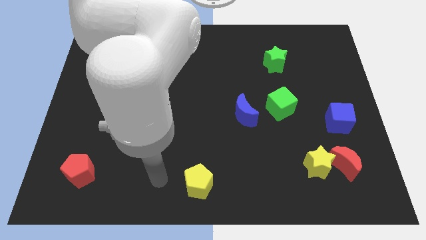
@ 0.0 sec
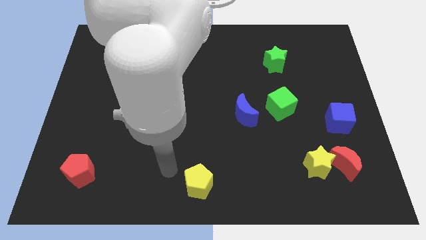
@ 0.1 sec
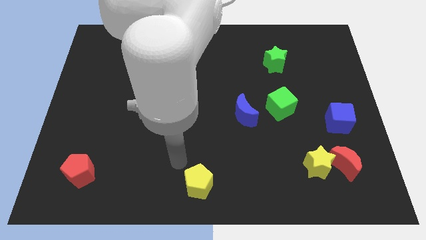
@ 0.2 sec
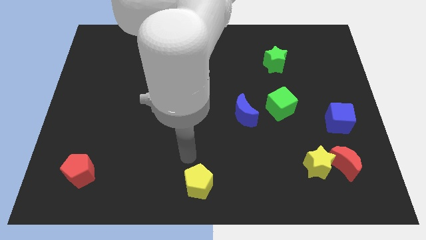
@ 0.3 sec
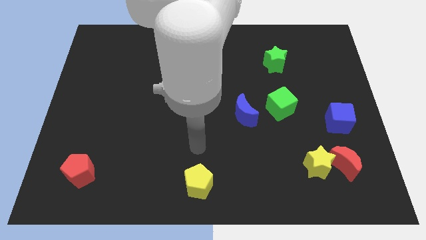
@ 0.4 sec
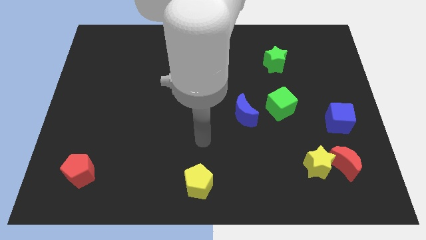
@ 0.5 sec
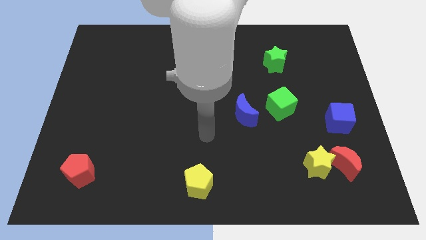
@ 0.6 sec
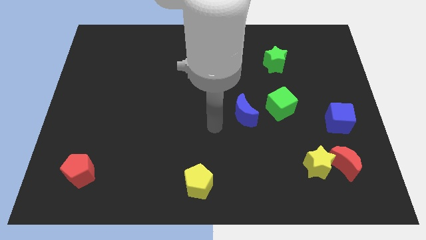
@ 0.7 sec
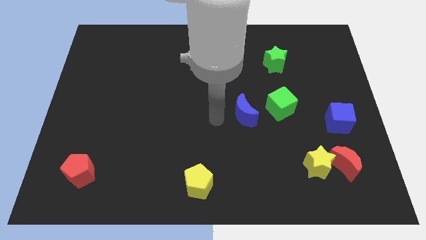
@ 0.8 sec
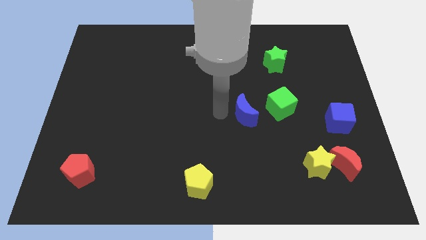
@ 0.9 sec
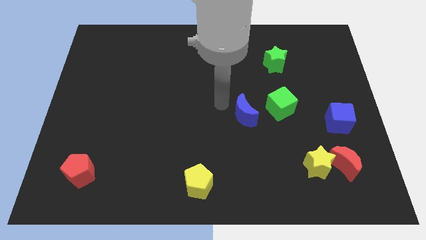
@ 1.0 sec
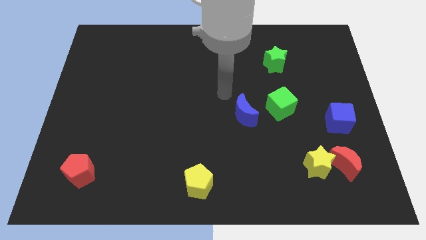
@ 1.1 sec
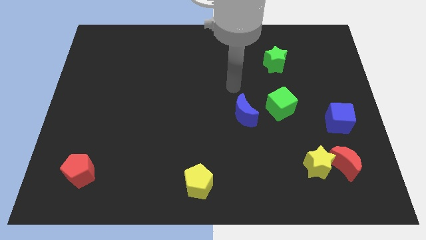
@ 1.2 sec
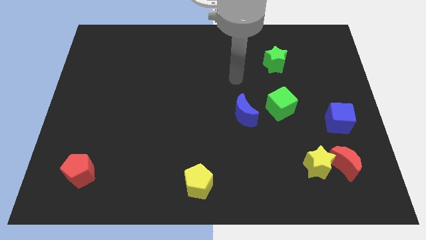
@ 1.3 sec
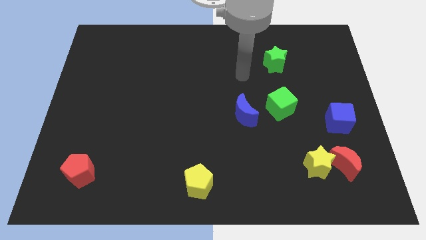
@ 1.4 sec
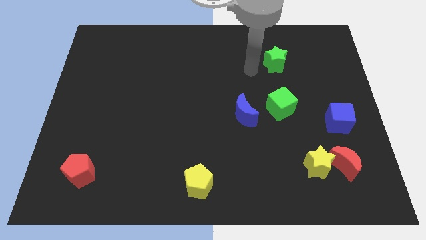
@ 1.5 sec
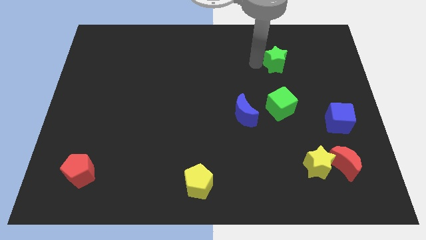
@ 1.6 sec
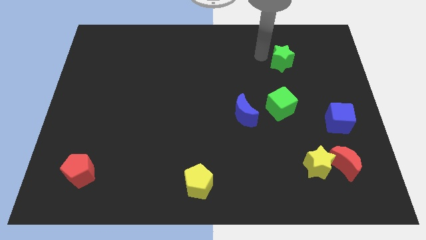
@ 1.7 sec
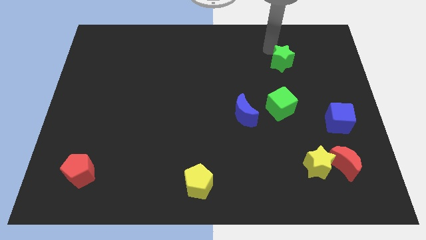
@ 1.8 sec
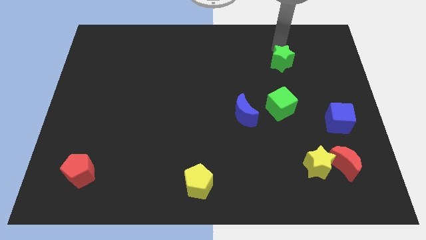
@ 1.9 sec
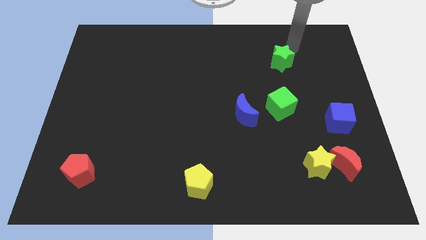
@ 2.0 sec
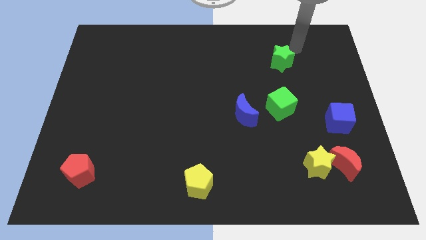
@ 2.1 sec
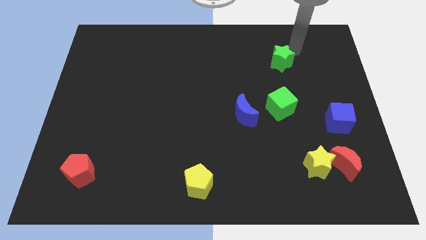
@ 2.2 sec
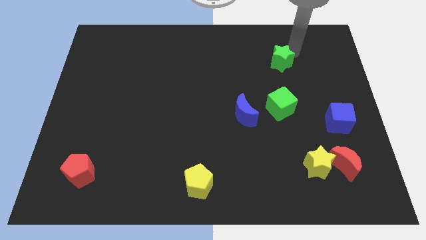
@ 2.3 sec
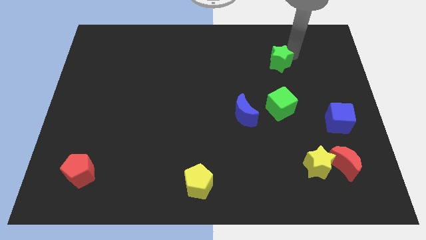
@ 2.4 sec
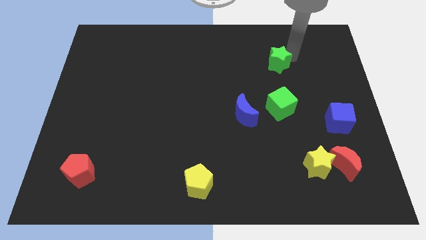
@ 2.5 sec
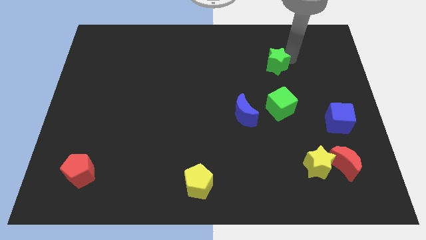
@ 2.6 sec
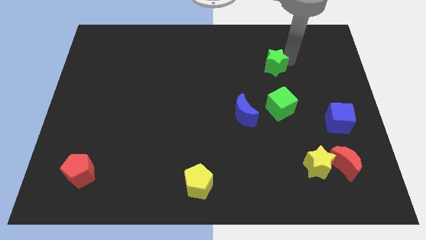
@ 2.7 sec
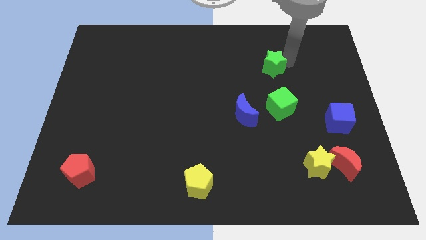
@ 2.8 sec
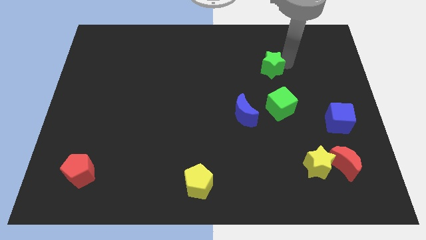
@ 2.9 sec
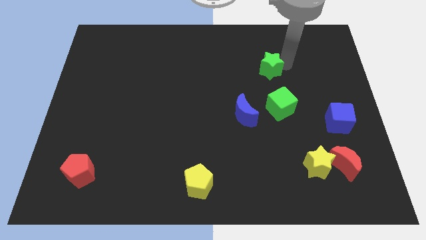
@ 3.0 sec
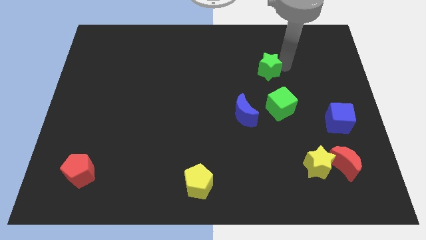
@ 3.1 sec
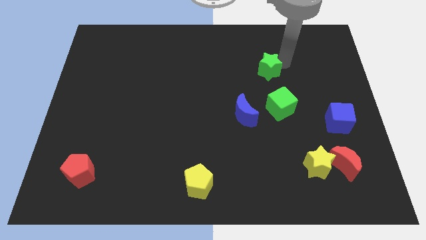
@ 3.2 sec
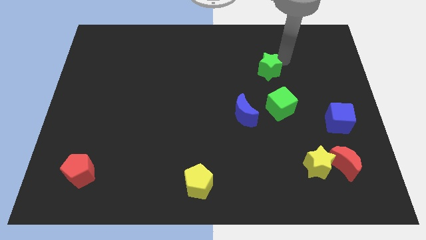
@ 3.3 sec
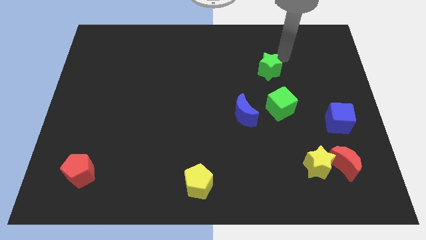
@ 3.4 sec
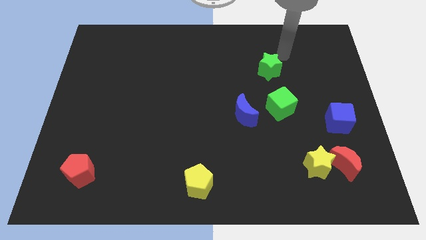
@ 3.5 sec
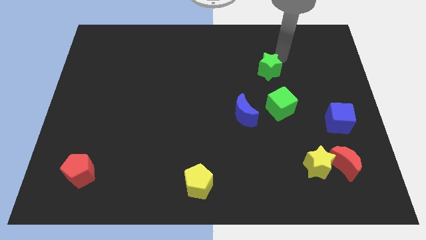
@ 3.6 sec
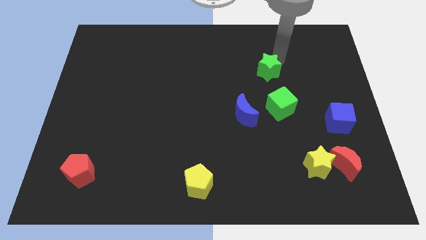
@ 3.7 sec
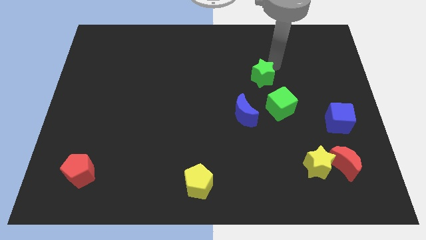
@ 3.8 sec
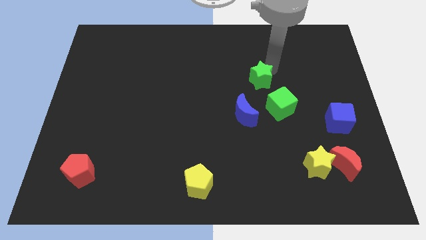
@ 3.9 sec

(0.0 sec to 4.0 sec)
slightly push the green star down and to the left diagonally

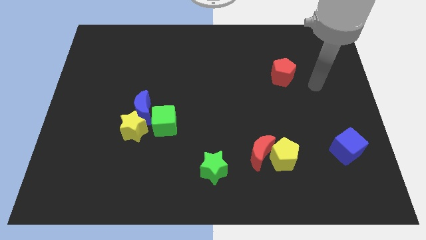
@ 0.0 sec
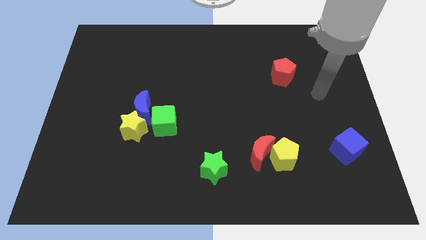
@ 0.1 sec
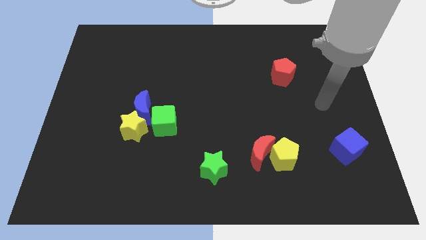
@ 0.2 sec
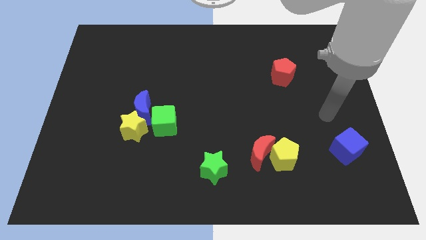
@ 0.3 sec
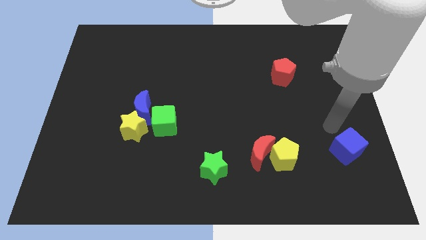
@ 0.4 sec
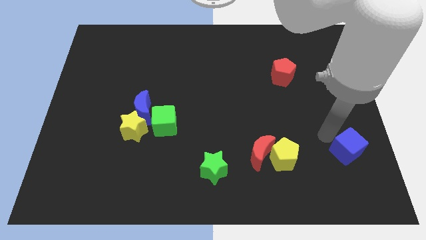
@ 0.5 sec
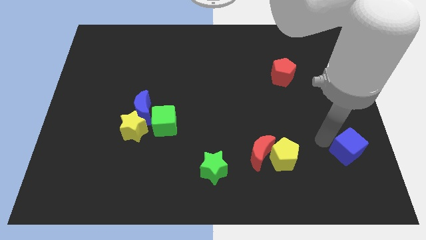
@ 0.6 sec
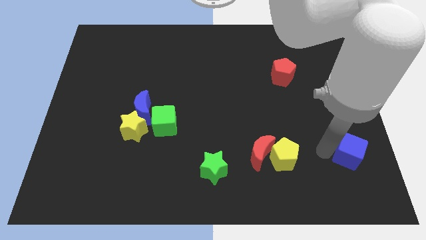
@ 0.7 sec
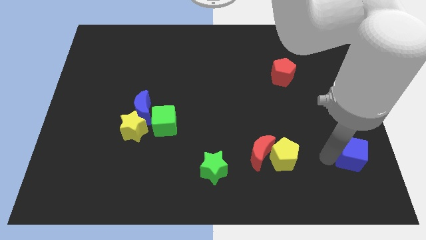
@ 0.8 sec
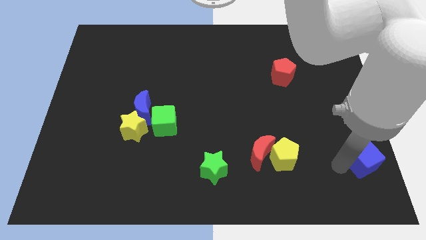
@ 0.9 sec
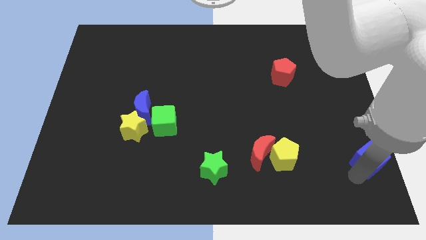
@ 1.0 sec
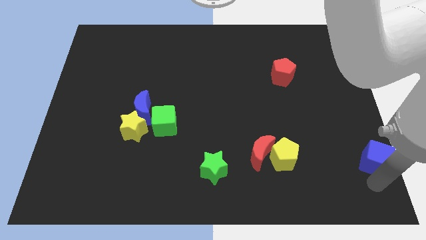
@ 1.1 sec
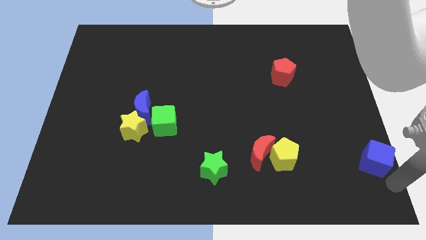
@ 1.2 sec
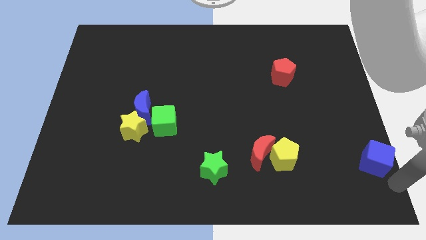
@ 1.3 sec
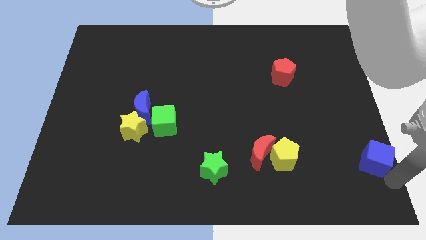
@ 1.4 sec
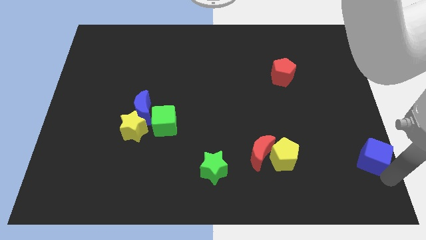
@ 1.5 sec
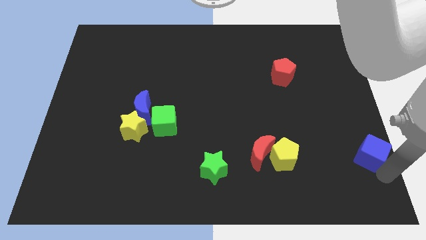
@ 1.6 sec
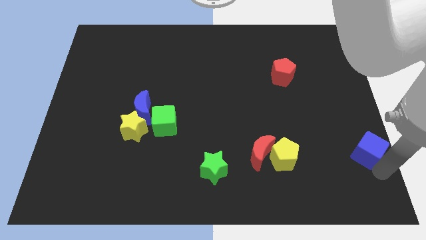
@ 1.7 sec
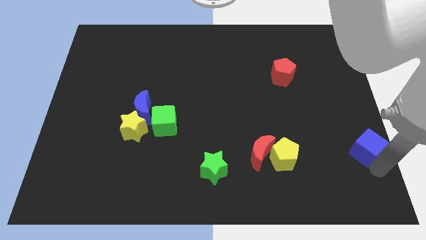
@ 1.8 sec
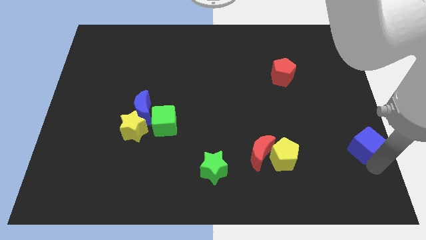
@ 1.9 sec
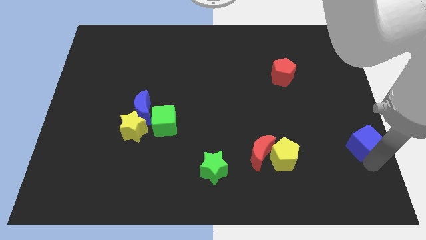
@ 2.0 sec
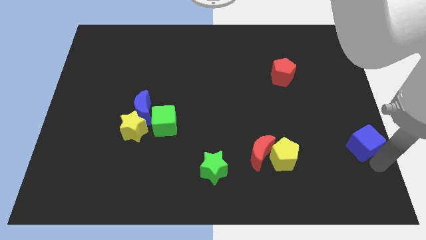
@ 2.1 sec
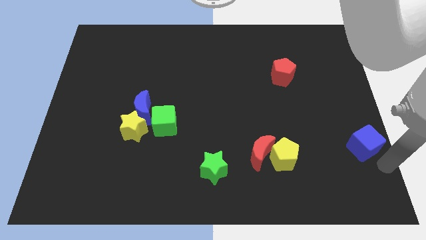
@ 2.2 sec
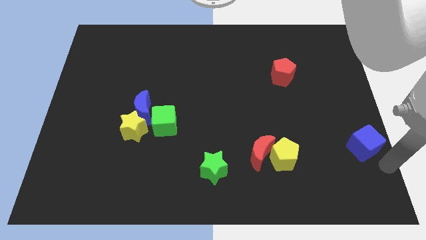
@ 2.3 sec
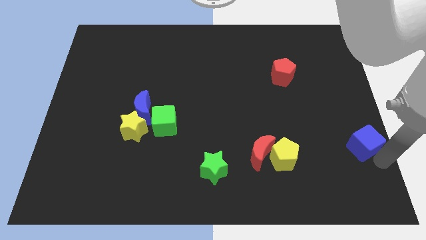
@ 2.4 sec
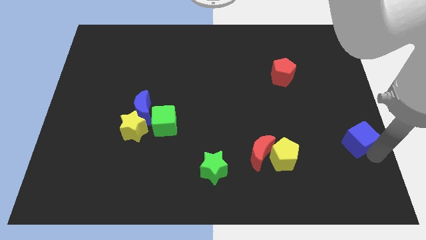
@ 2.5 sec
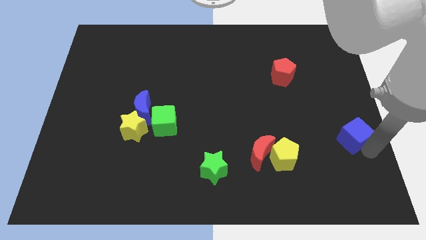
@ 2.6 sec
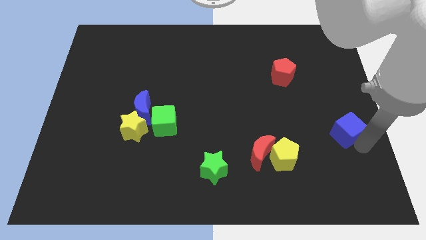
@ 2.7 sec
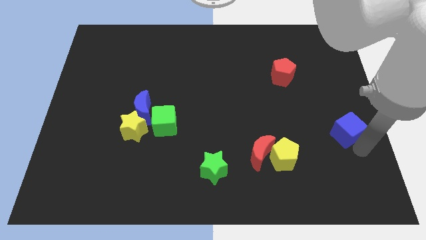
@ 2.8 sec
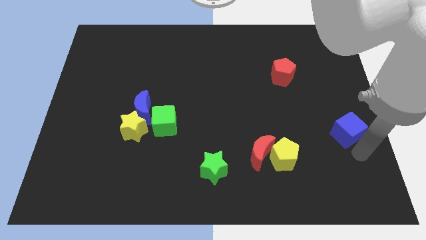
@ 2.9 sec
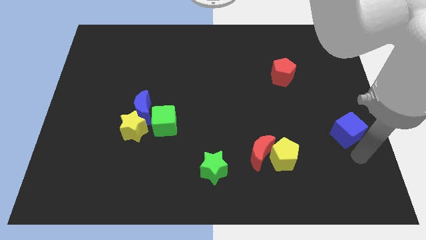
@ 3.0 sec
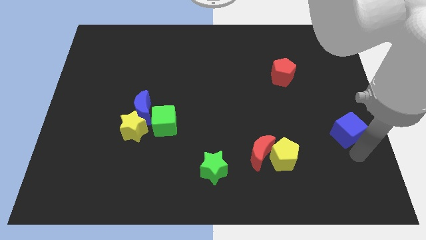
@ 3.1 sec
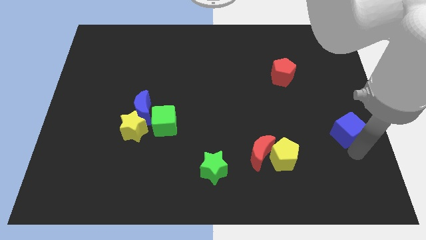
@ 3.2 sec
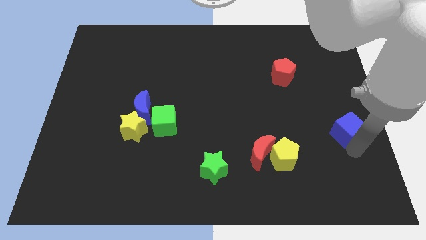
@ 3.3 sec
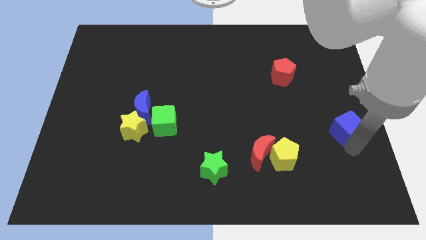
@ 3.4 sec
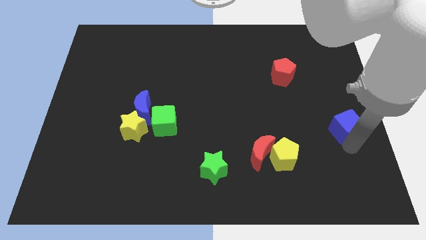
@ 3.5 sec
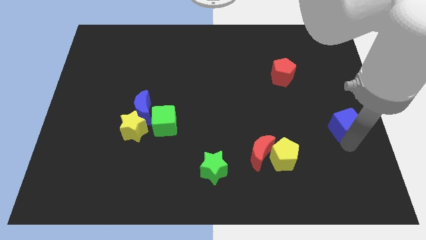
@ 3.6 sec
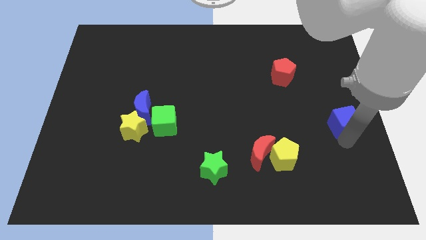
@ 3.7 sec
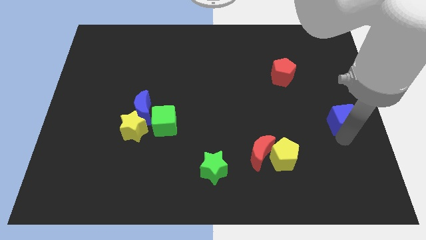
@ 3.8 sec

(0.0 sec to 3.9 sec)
slide the blue cube up slightly

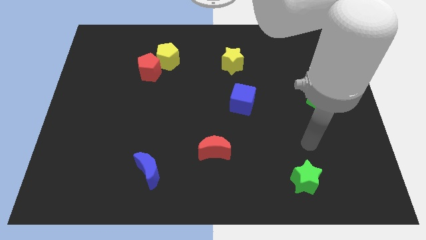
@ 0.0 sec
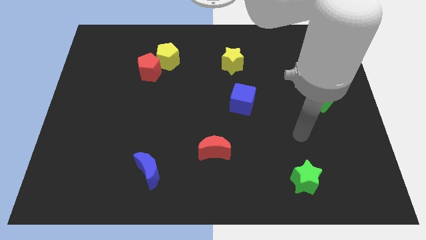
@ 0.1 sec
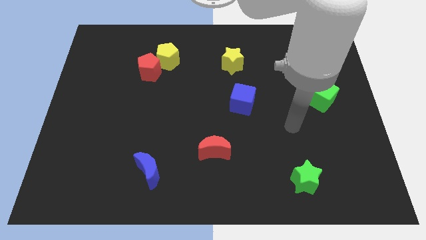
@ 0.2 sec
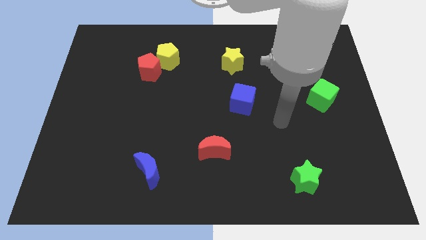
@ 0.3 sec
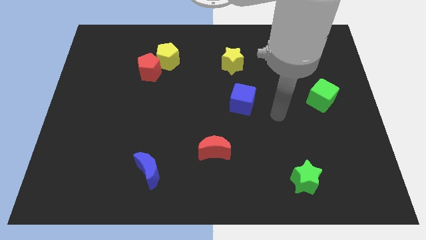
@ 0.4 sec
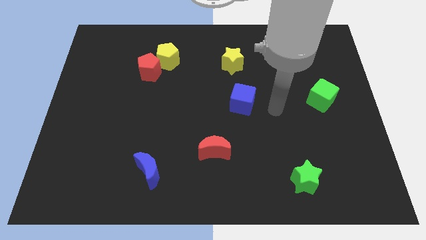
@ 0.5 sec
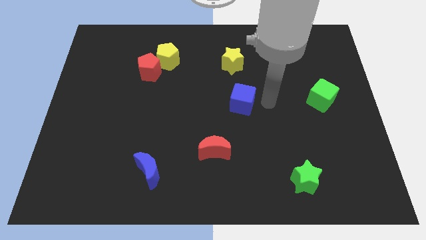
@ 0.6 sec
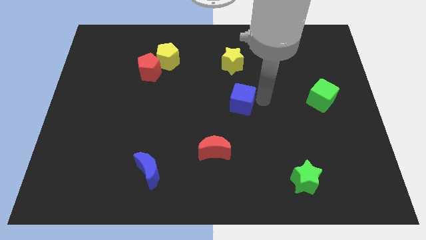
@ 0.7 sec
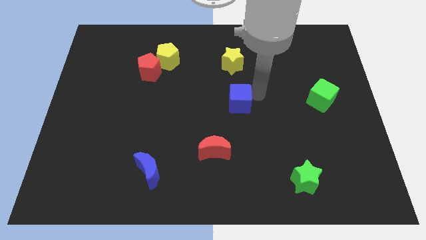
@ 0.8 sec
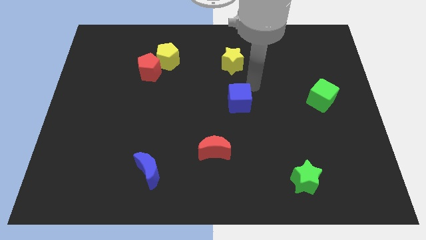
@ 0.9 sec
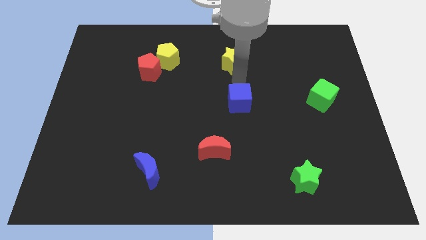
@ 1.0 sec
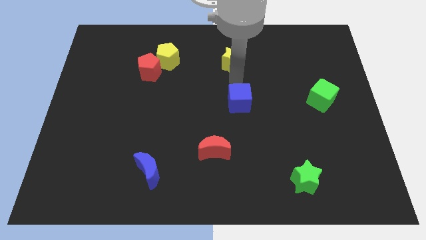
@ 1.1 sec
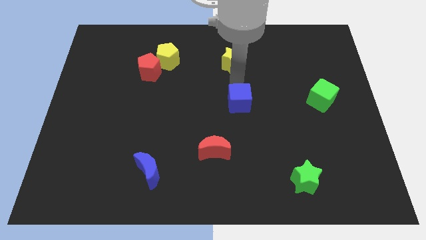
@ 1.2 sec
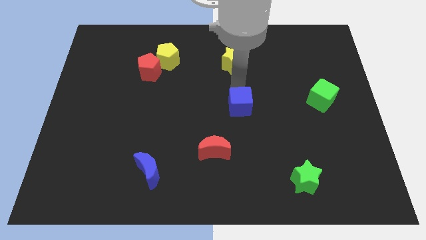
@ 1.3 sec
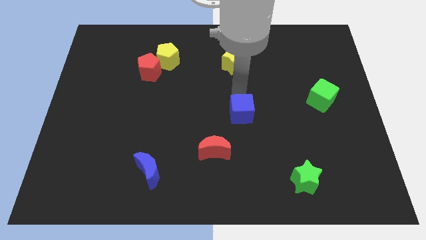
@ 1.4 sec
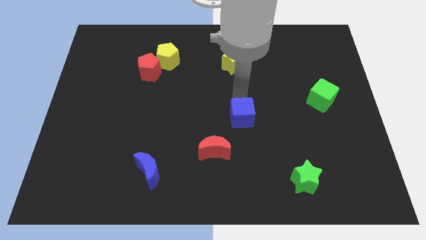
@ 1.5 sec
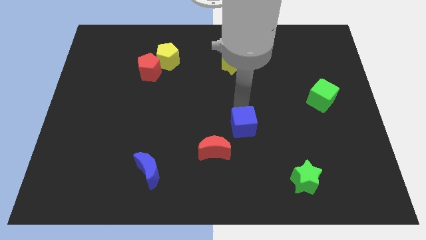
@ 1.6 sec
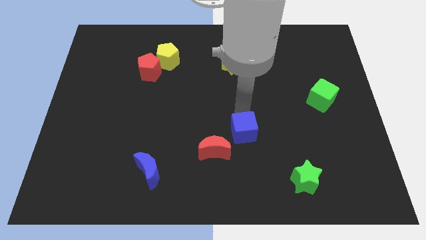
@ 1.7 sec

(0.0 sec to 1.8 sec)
move the blue cube slightly downwards
